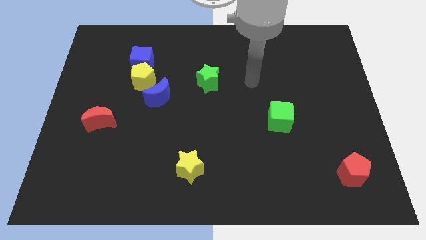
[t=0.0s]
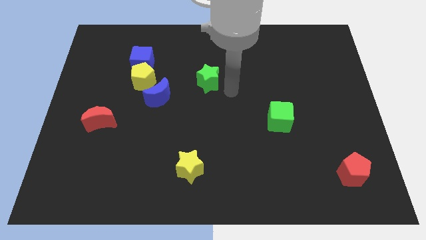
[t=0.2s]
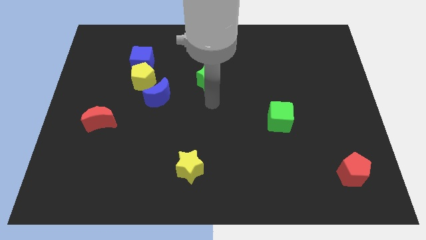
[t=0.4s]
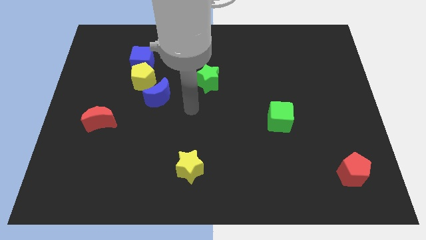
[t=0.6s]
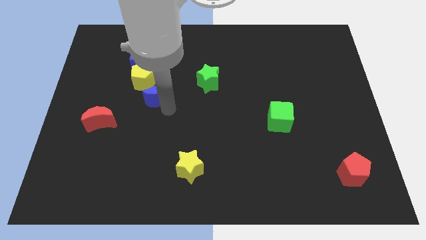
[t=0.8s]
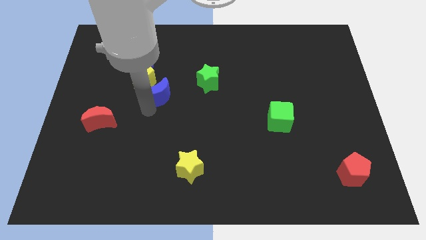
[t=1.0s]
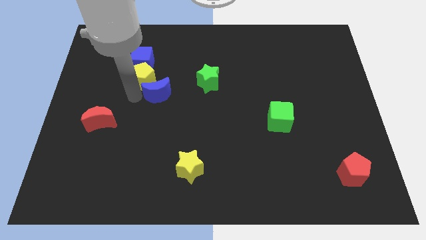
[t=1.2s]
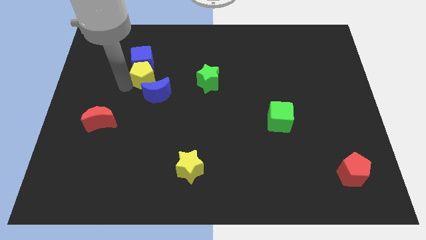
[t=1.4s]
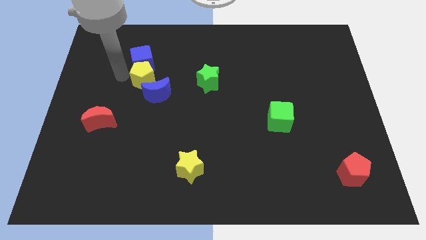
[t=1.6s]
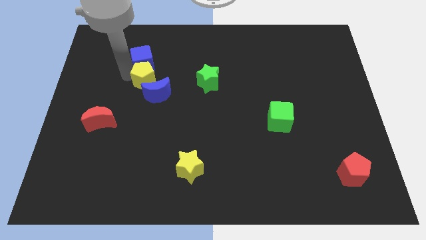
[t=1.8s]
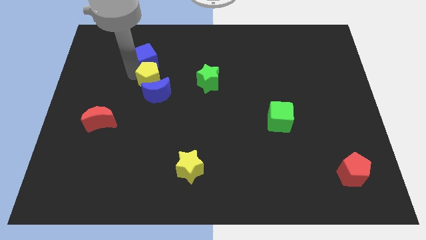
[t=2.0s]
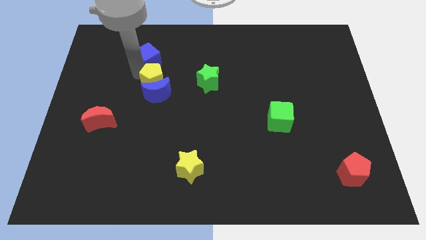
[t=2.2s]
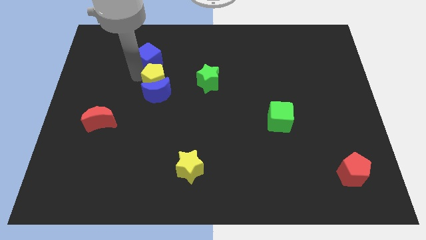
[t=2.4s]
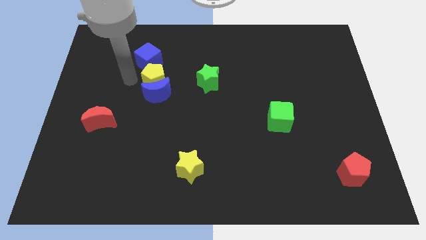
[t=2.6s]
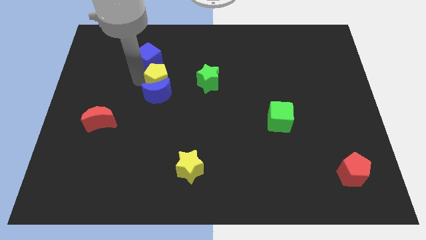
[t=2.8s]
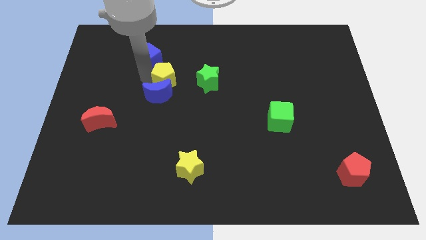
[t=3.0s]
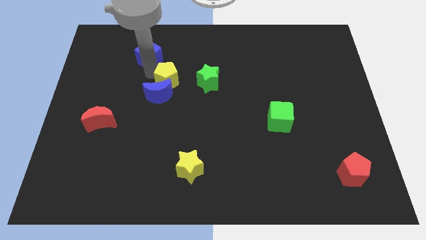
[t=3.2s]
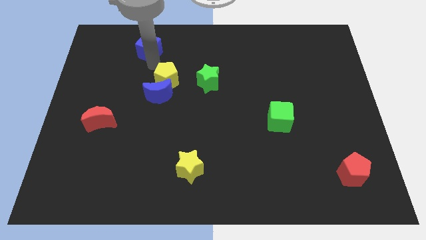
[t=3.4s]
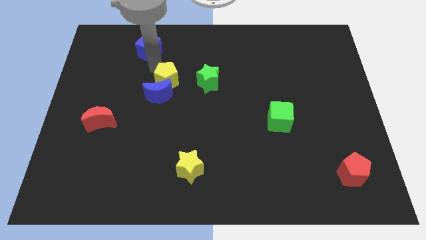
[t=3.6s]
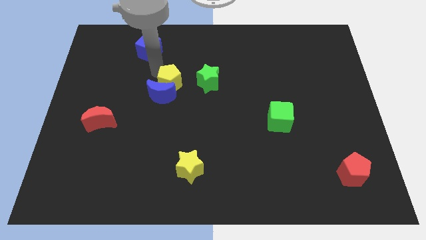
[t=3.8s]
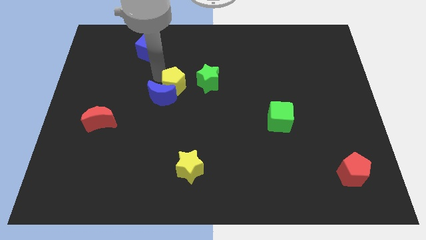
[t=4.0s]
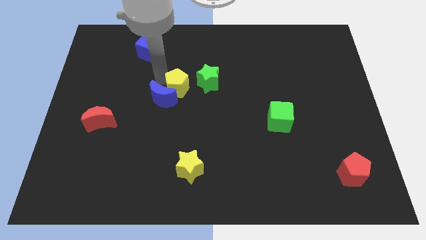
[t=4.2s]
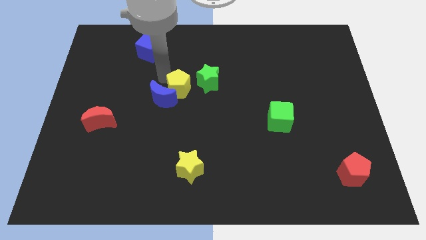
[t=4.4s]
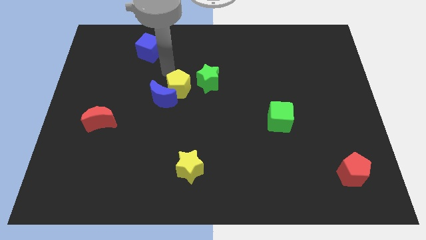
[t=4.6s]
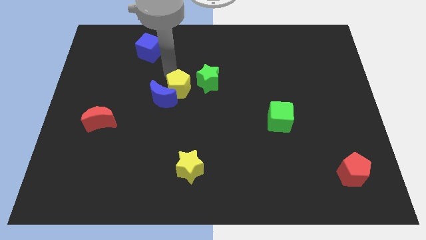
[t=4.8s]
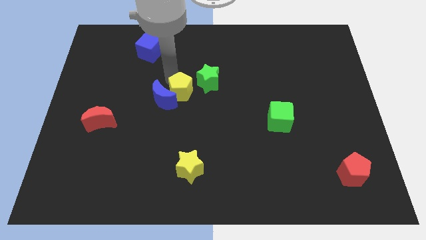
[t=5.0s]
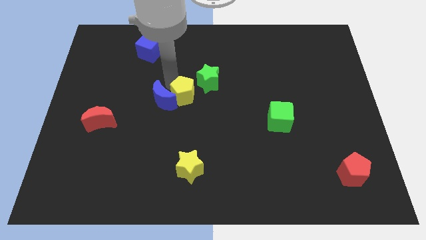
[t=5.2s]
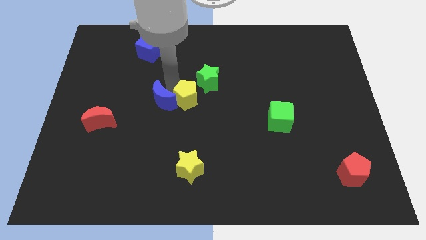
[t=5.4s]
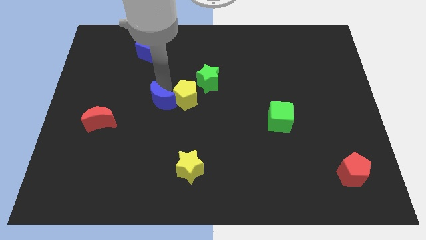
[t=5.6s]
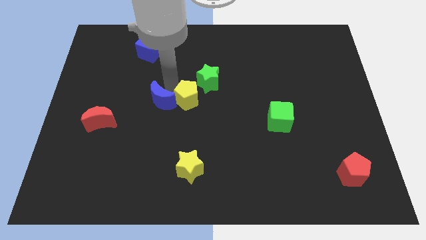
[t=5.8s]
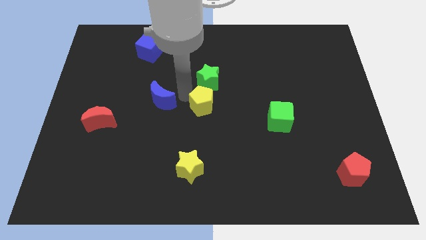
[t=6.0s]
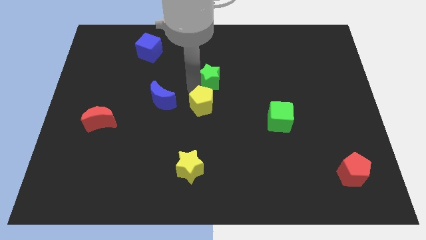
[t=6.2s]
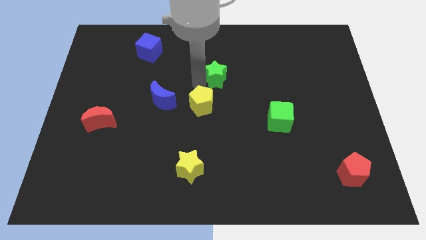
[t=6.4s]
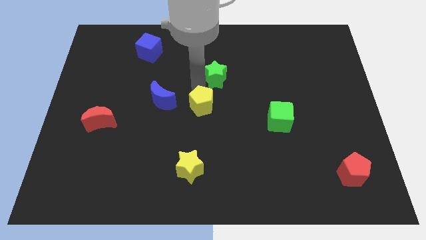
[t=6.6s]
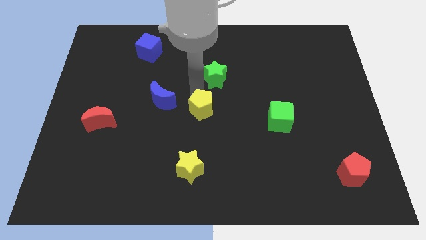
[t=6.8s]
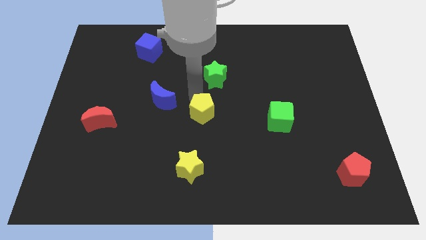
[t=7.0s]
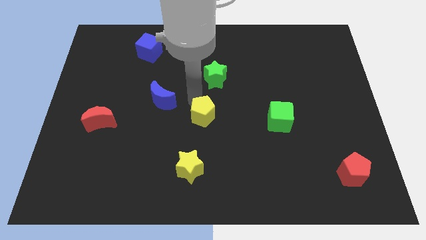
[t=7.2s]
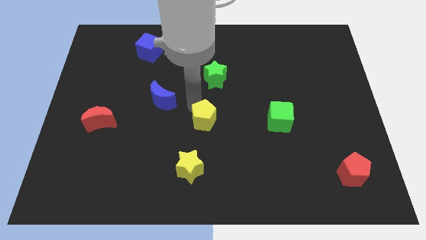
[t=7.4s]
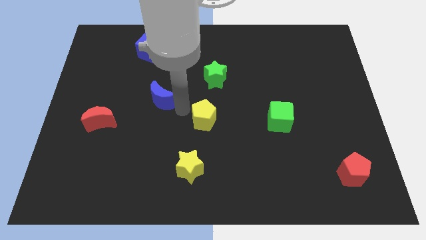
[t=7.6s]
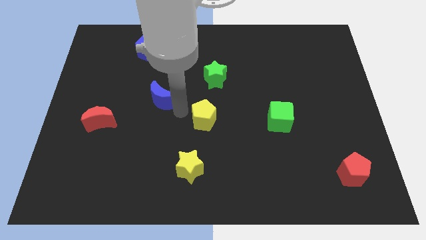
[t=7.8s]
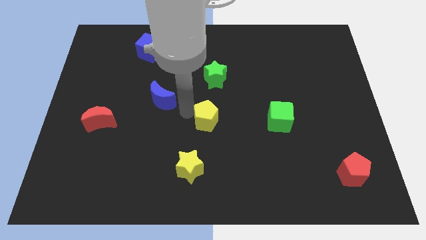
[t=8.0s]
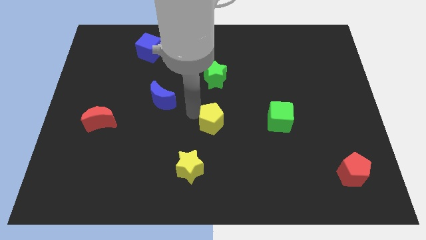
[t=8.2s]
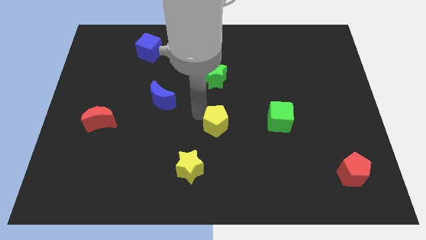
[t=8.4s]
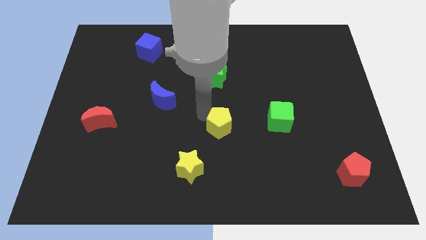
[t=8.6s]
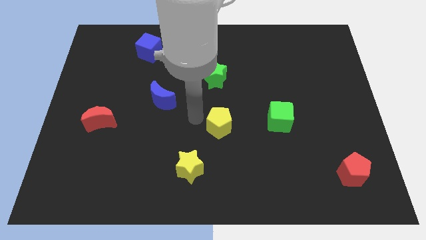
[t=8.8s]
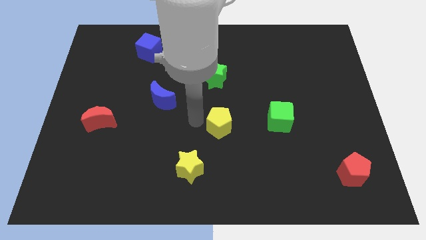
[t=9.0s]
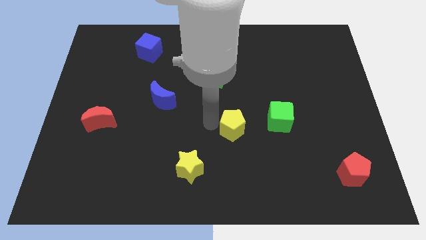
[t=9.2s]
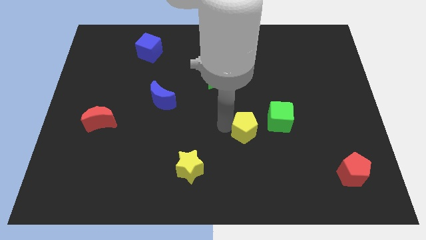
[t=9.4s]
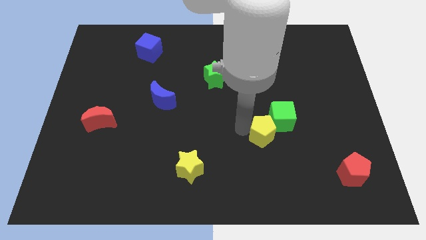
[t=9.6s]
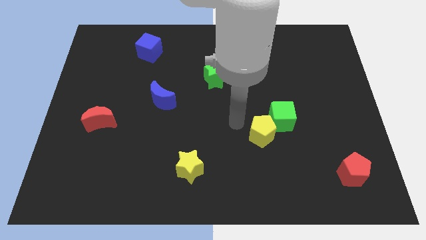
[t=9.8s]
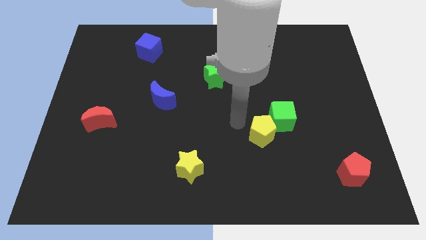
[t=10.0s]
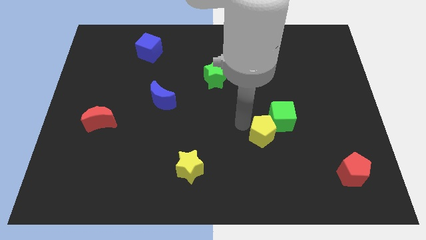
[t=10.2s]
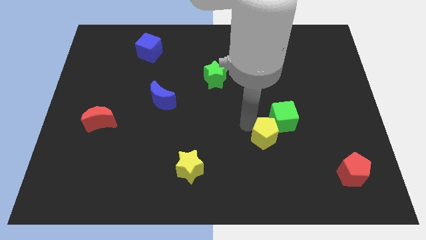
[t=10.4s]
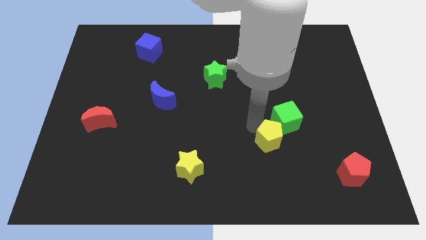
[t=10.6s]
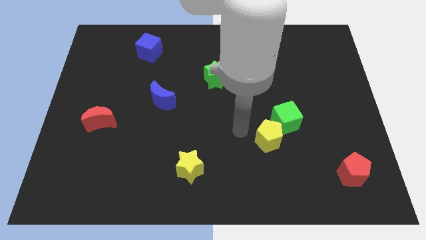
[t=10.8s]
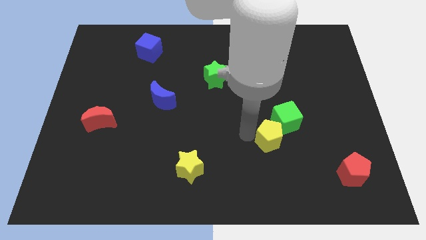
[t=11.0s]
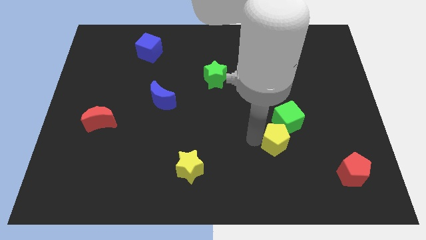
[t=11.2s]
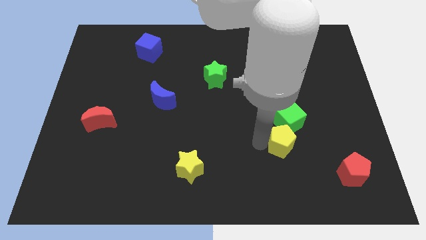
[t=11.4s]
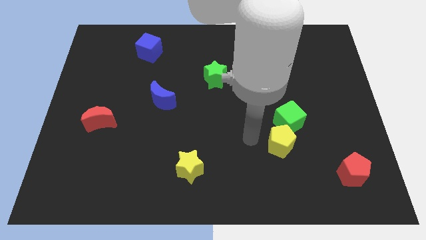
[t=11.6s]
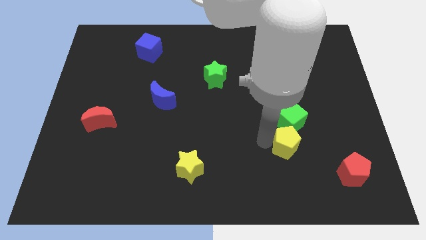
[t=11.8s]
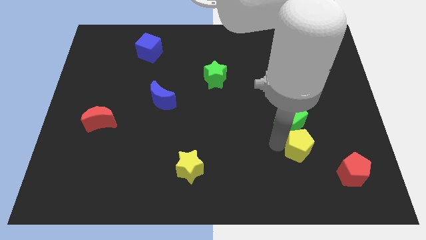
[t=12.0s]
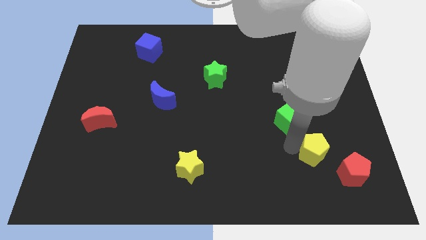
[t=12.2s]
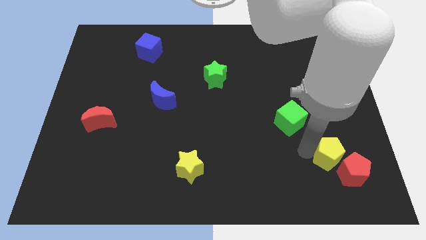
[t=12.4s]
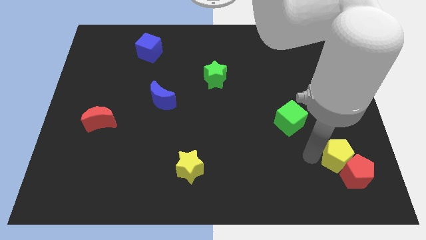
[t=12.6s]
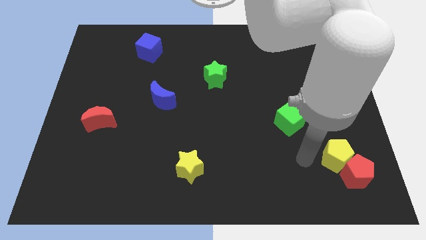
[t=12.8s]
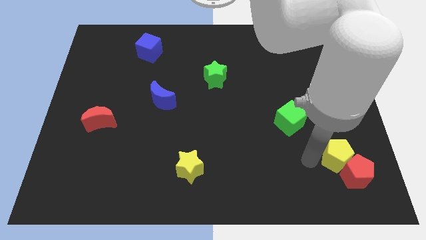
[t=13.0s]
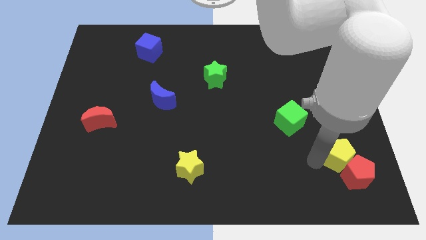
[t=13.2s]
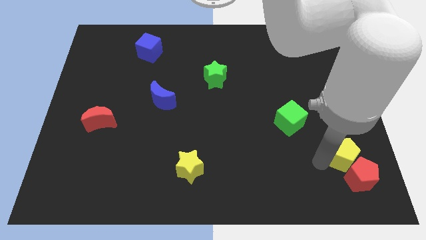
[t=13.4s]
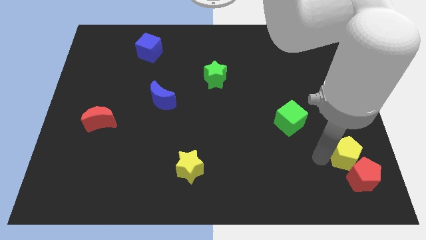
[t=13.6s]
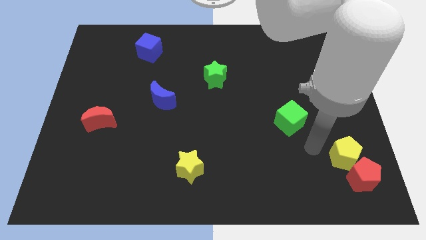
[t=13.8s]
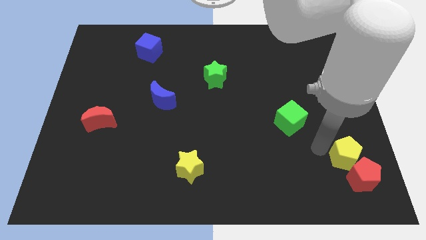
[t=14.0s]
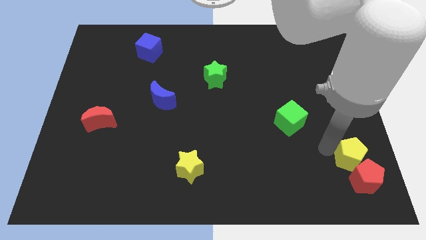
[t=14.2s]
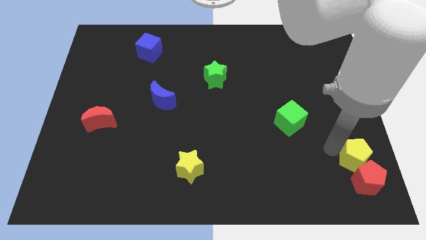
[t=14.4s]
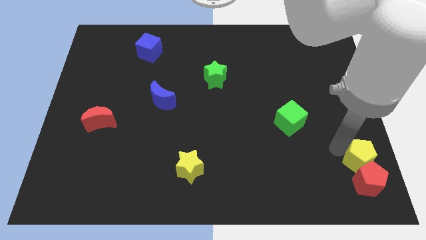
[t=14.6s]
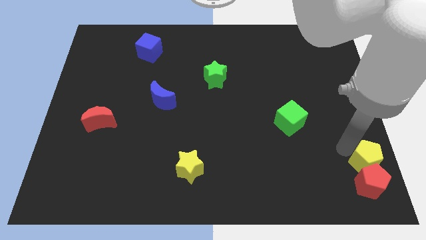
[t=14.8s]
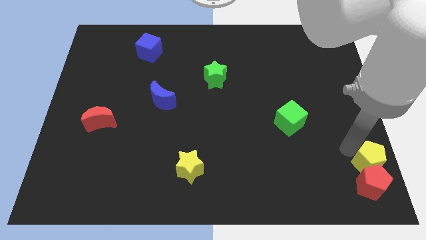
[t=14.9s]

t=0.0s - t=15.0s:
slide the yellow pentagon to the bottom right
